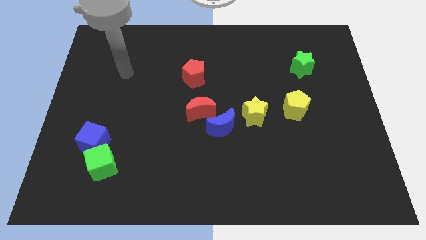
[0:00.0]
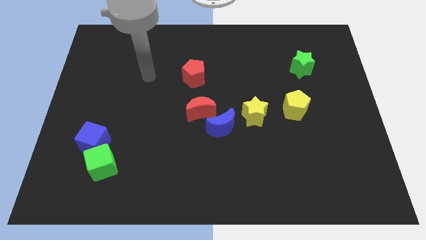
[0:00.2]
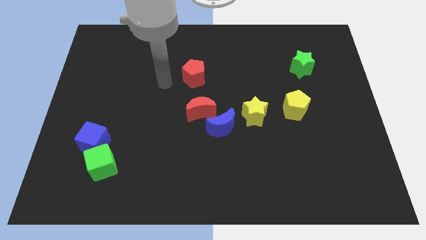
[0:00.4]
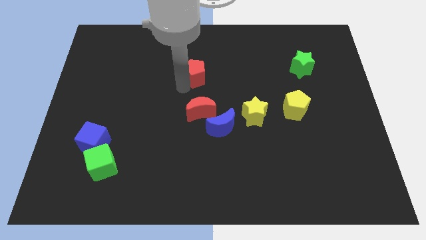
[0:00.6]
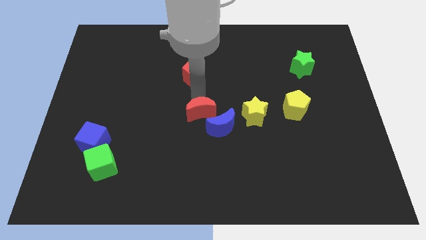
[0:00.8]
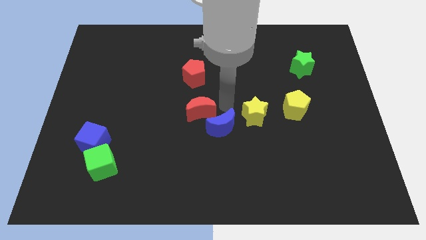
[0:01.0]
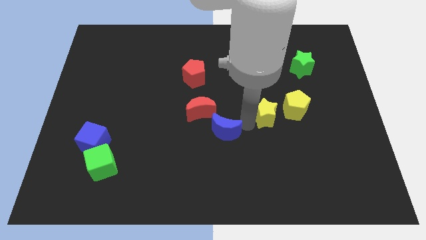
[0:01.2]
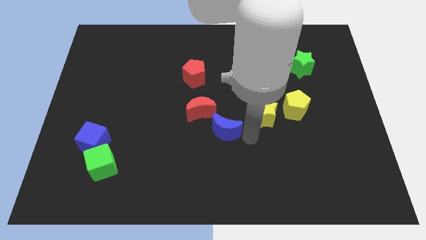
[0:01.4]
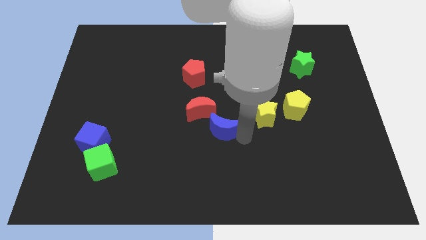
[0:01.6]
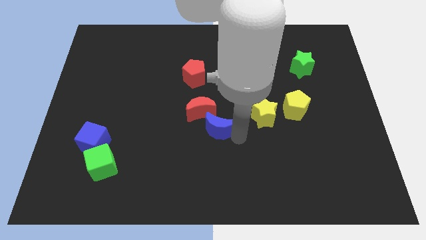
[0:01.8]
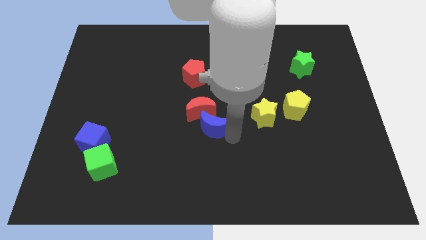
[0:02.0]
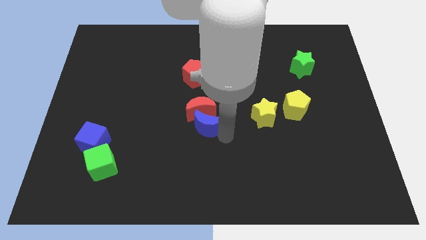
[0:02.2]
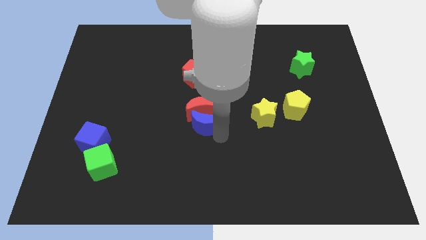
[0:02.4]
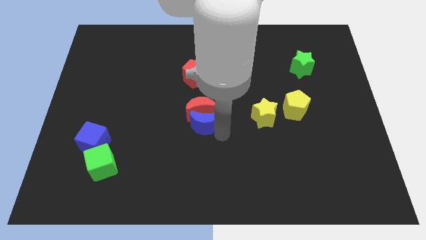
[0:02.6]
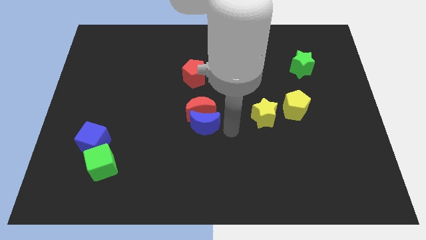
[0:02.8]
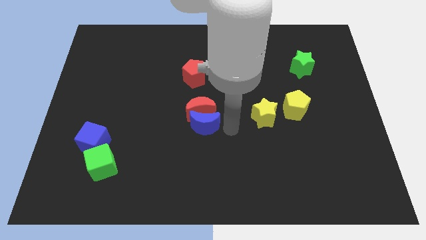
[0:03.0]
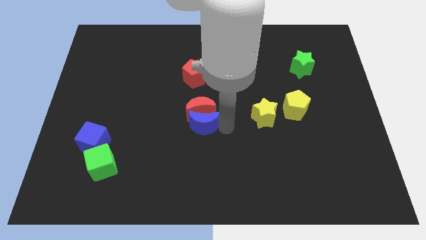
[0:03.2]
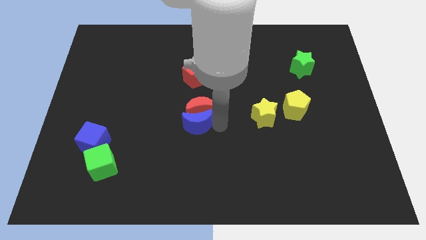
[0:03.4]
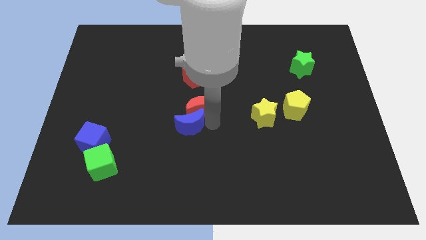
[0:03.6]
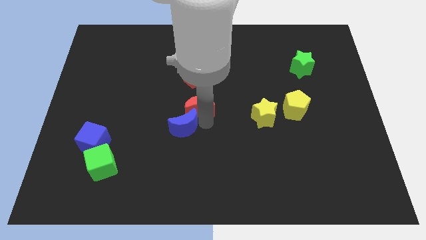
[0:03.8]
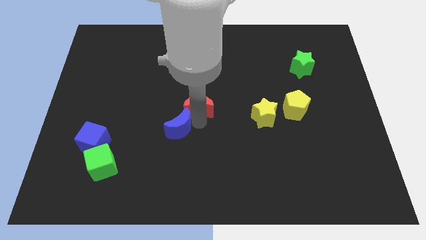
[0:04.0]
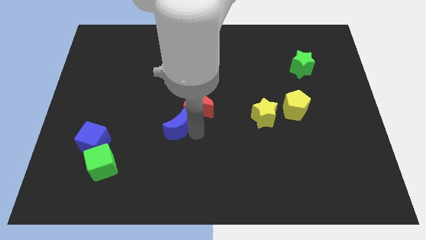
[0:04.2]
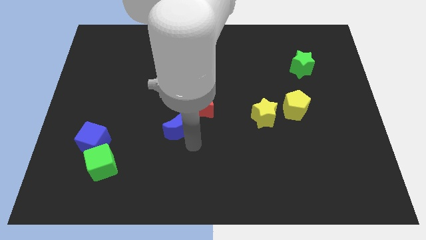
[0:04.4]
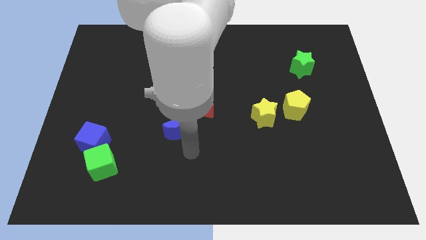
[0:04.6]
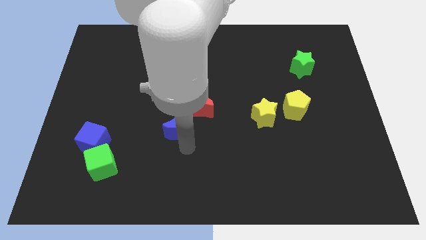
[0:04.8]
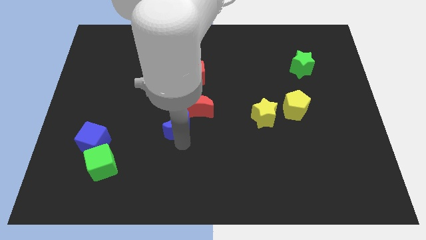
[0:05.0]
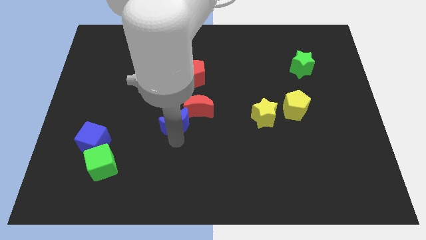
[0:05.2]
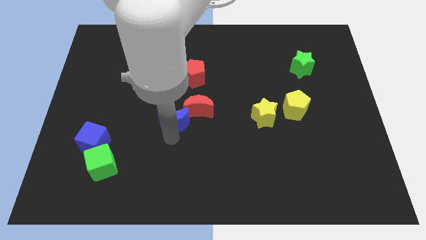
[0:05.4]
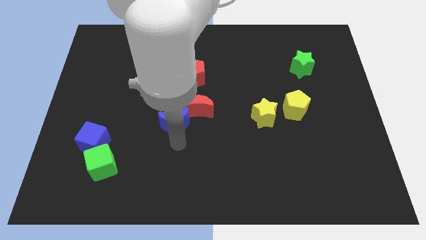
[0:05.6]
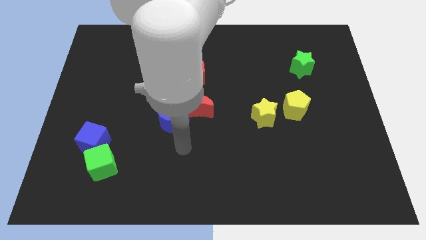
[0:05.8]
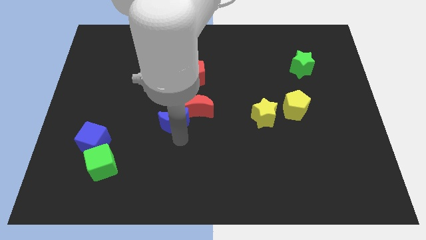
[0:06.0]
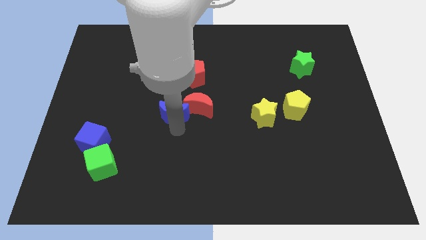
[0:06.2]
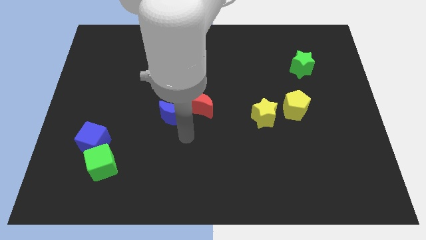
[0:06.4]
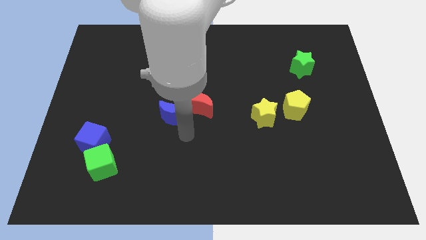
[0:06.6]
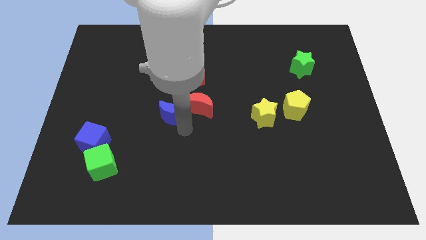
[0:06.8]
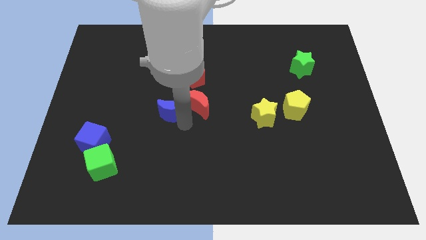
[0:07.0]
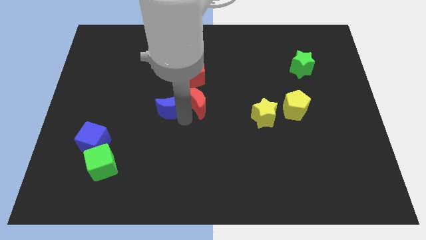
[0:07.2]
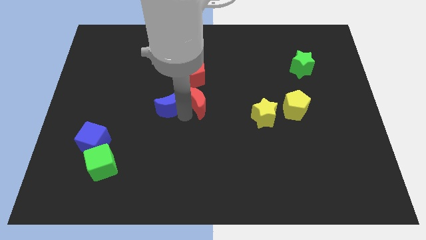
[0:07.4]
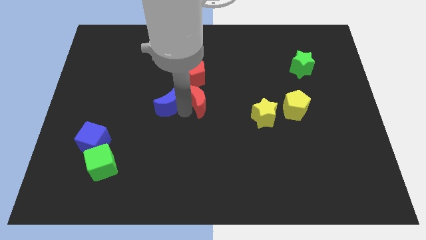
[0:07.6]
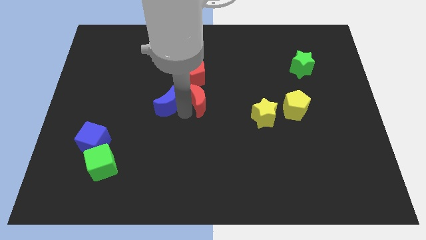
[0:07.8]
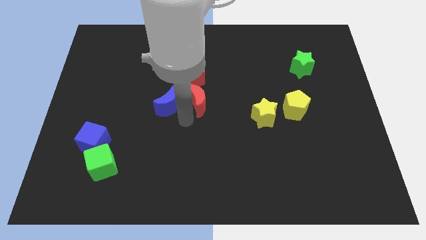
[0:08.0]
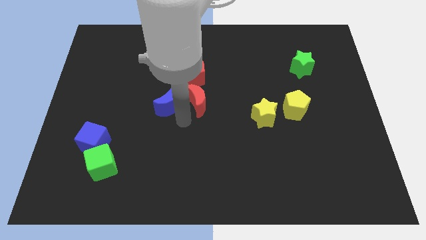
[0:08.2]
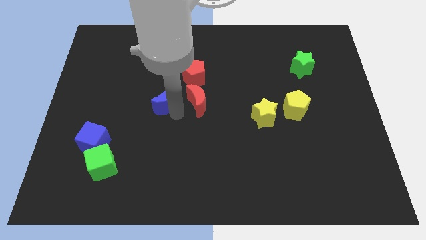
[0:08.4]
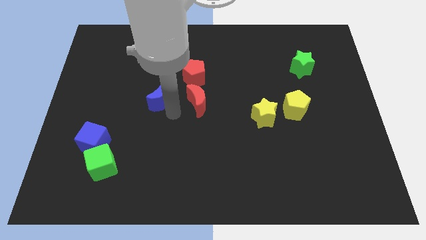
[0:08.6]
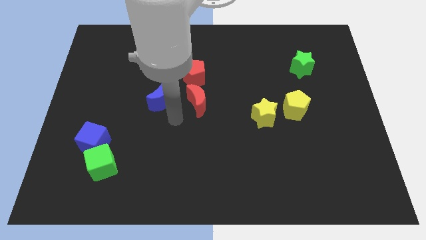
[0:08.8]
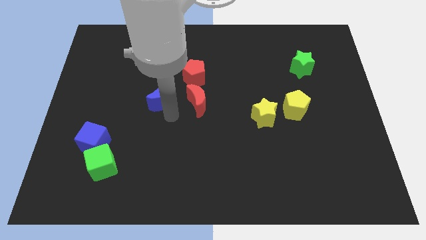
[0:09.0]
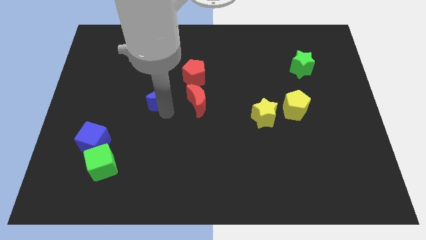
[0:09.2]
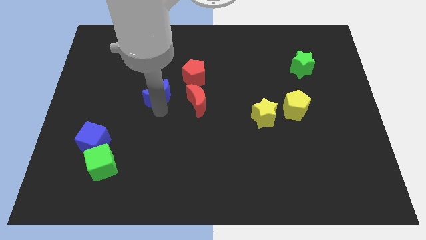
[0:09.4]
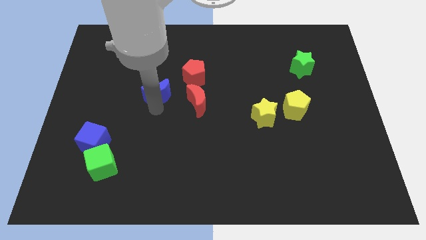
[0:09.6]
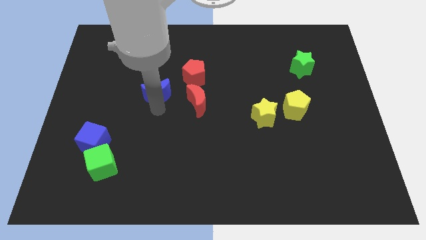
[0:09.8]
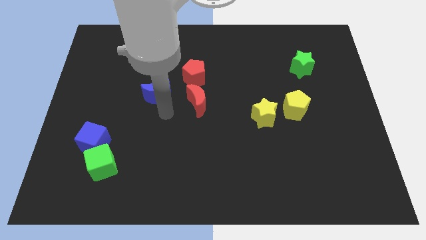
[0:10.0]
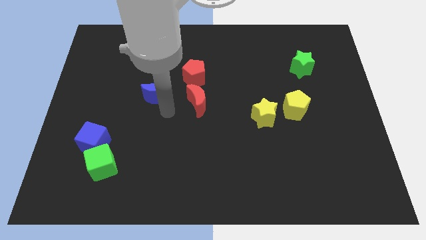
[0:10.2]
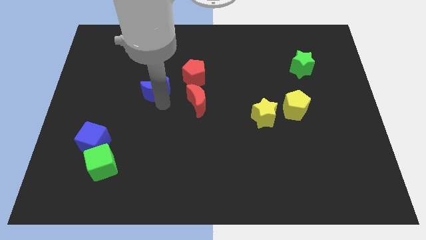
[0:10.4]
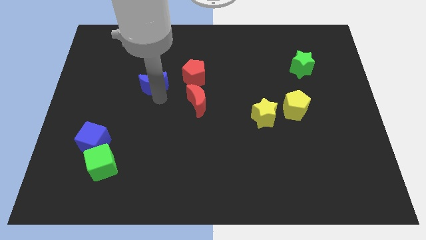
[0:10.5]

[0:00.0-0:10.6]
slide the blue moon upwards and to the left diagonally

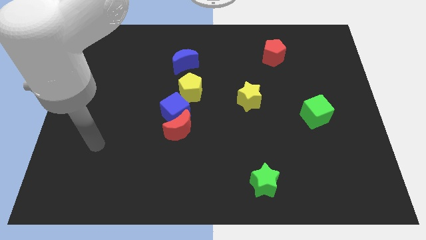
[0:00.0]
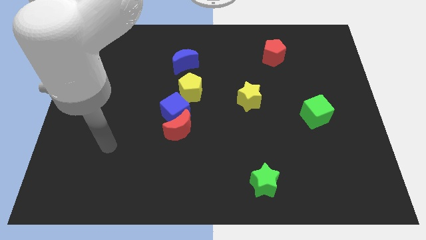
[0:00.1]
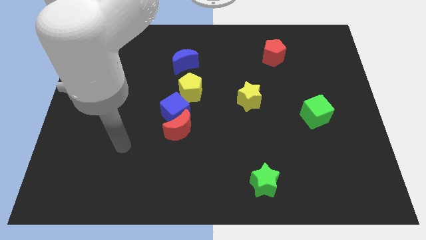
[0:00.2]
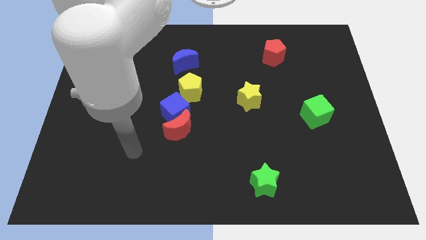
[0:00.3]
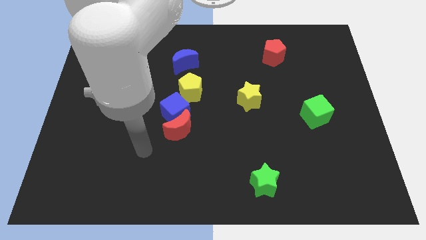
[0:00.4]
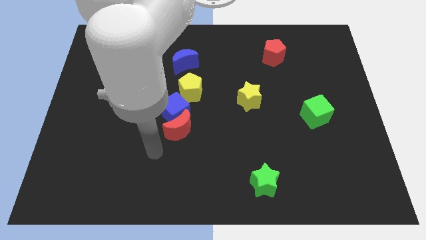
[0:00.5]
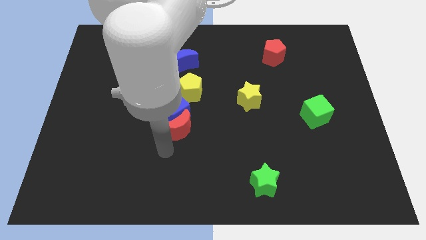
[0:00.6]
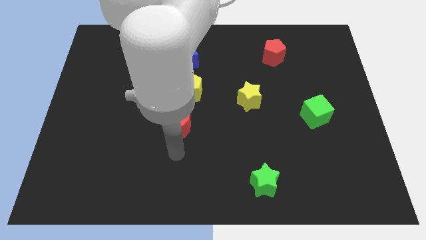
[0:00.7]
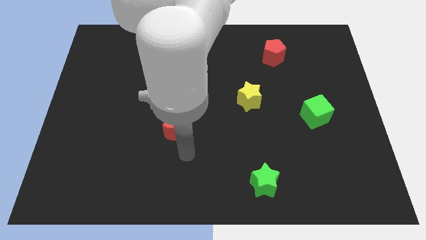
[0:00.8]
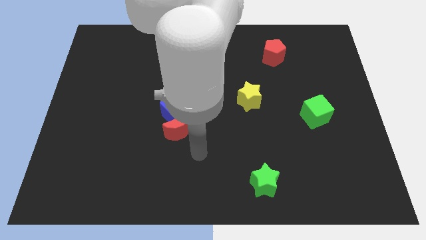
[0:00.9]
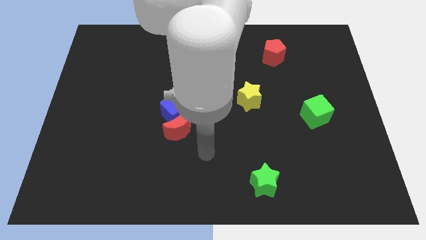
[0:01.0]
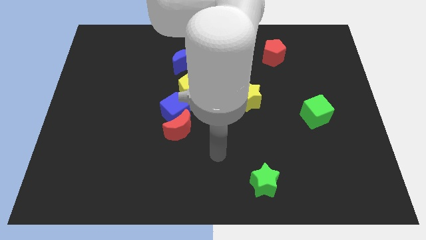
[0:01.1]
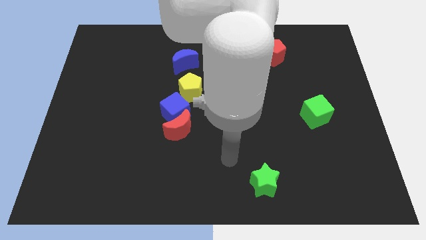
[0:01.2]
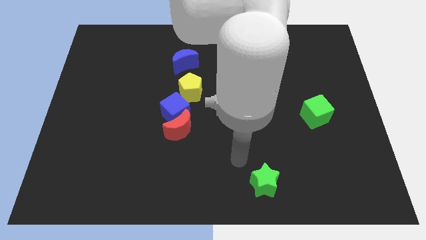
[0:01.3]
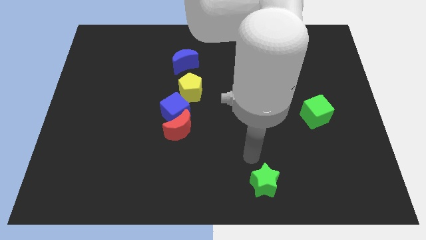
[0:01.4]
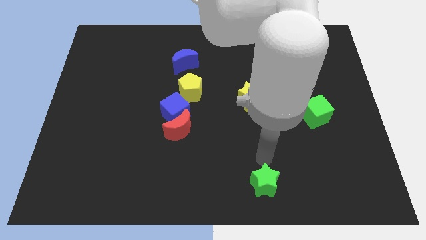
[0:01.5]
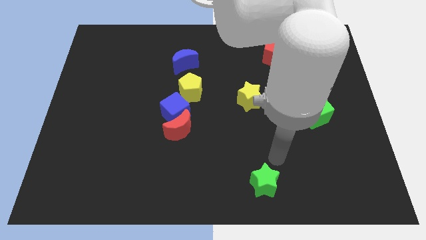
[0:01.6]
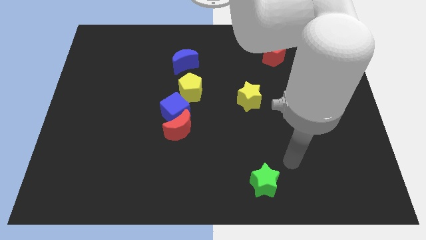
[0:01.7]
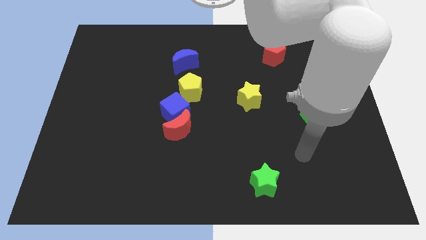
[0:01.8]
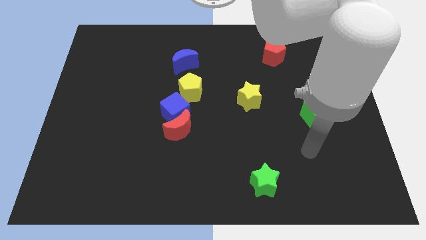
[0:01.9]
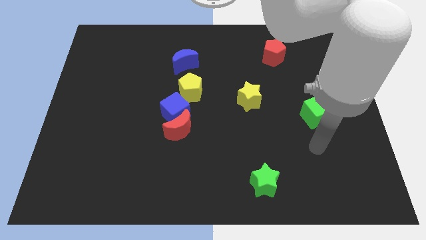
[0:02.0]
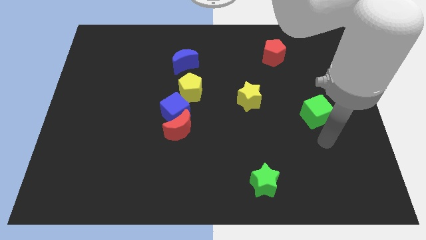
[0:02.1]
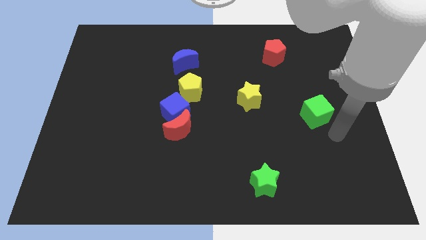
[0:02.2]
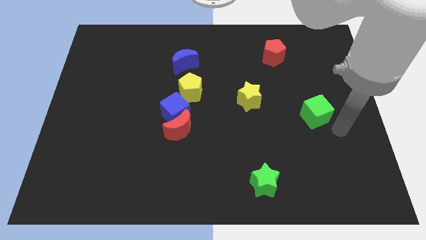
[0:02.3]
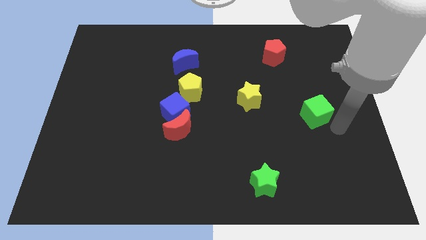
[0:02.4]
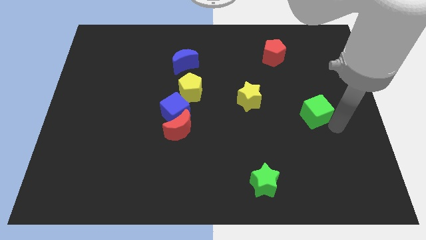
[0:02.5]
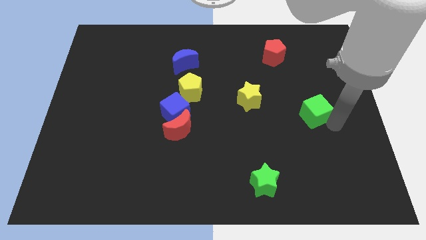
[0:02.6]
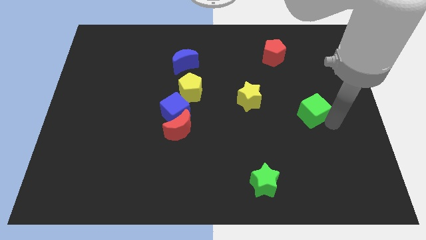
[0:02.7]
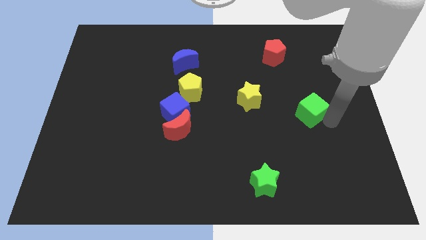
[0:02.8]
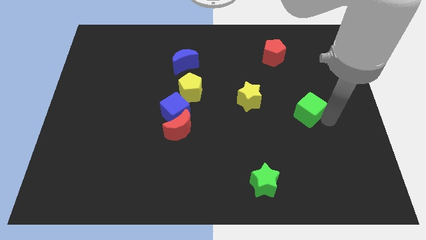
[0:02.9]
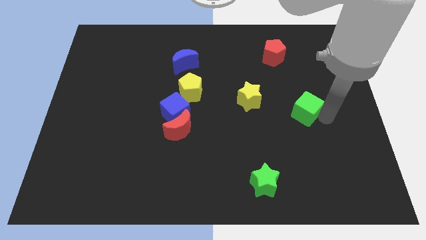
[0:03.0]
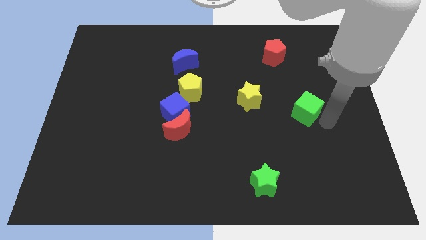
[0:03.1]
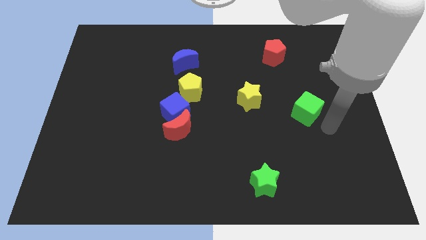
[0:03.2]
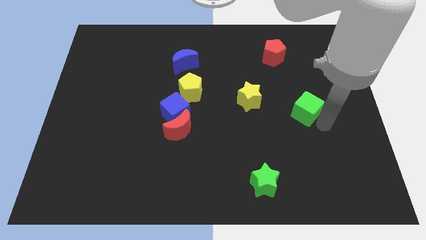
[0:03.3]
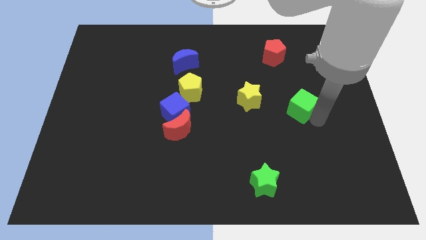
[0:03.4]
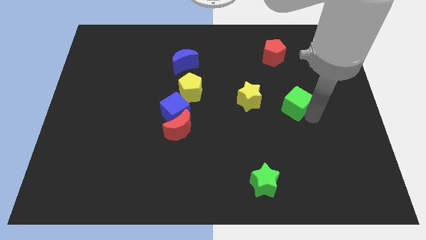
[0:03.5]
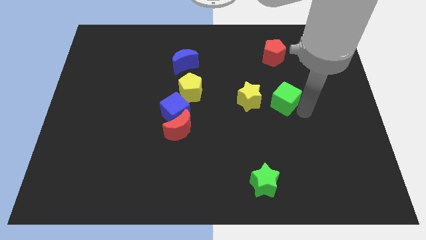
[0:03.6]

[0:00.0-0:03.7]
slightly slide the green cube diagonally up and to the left
